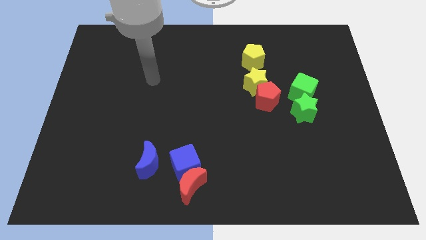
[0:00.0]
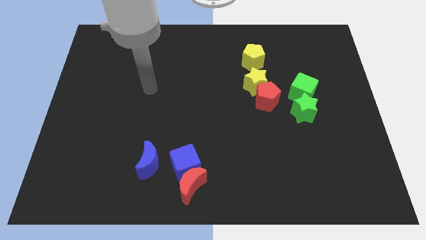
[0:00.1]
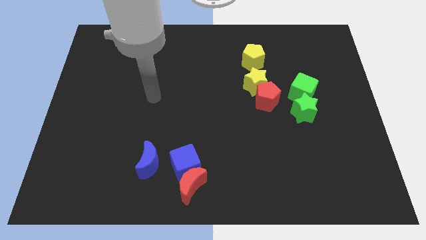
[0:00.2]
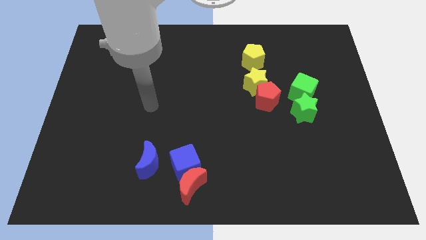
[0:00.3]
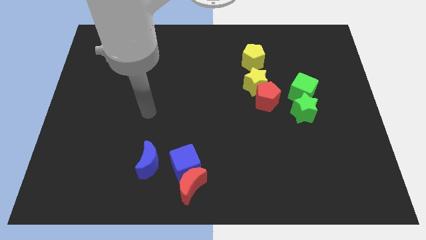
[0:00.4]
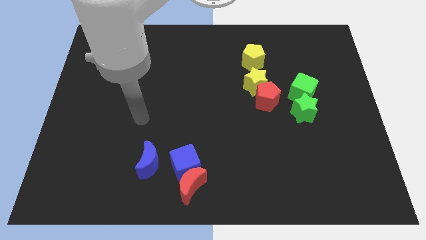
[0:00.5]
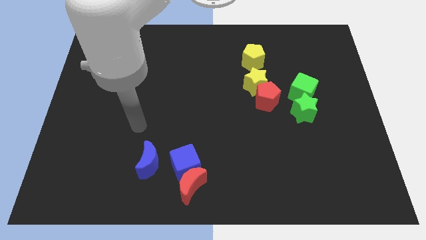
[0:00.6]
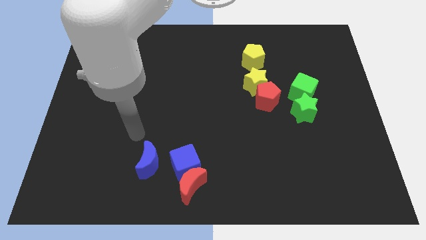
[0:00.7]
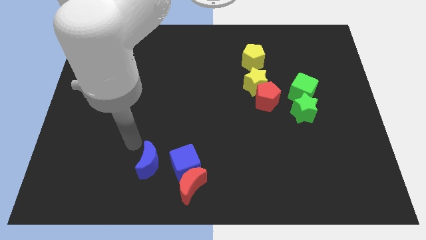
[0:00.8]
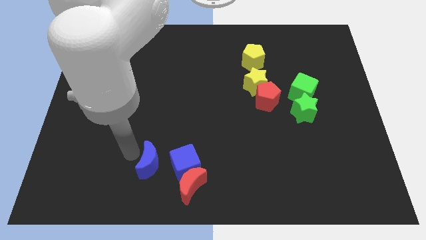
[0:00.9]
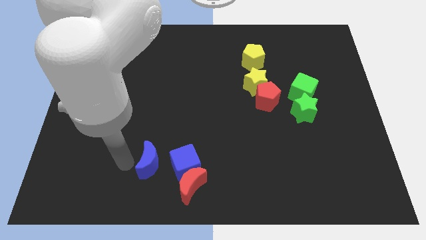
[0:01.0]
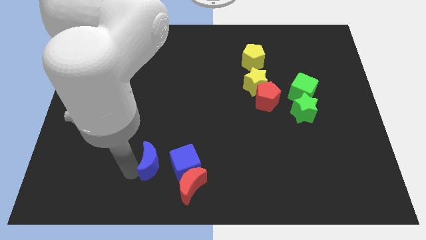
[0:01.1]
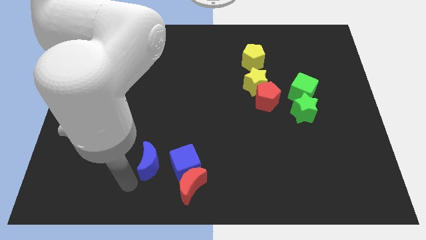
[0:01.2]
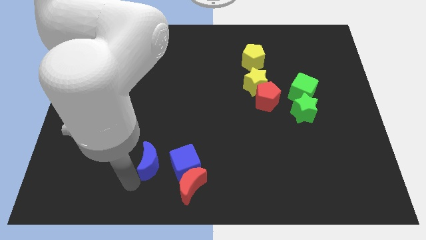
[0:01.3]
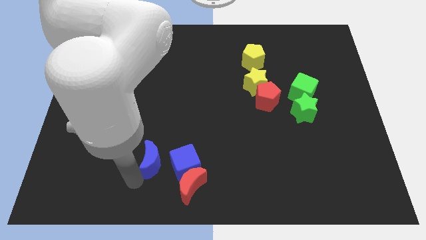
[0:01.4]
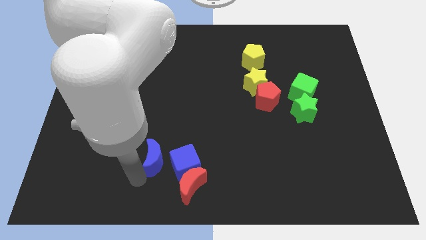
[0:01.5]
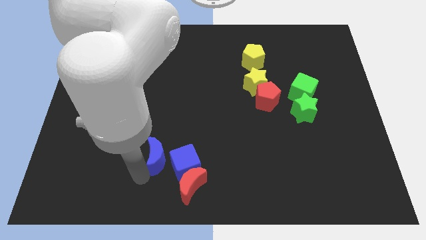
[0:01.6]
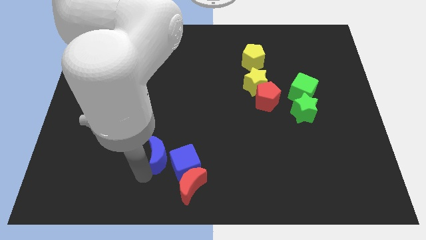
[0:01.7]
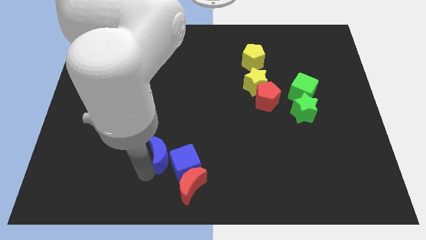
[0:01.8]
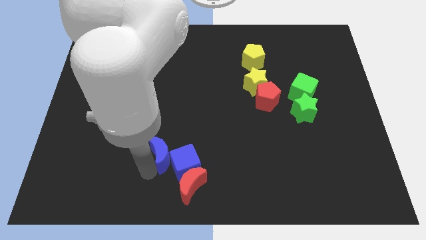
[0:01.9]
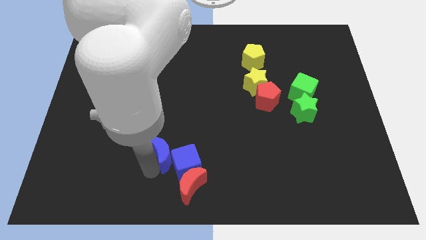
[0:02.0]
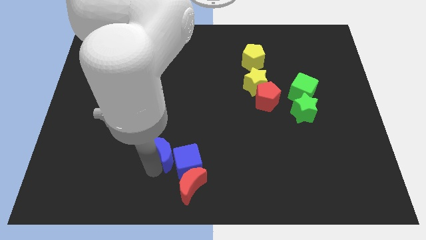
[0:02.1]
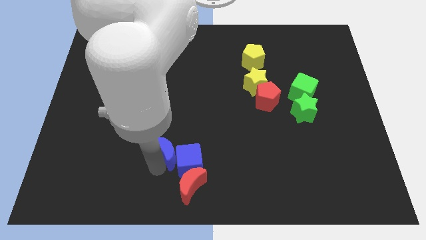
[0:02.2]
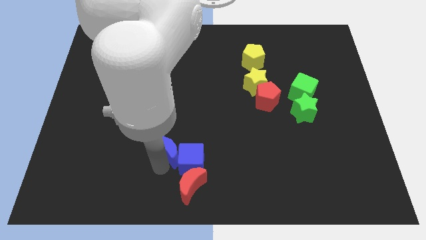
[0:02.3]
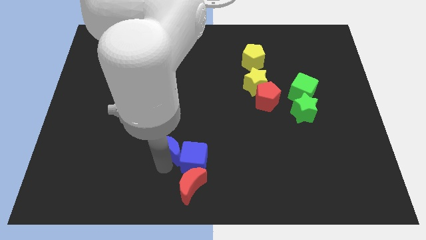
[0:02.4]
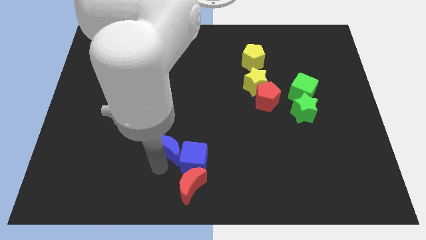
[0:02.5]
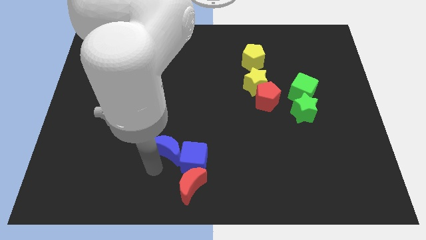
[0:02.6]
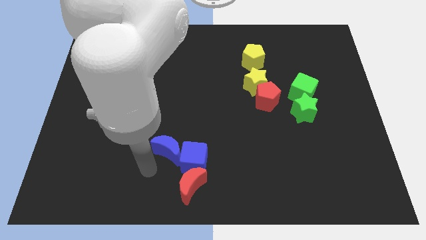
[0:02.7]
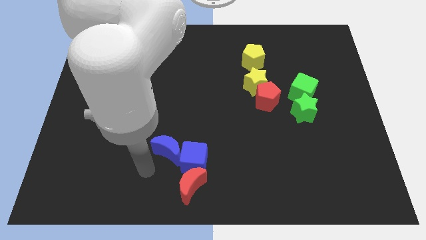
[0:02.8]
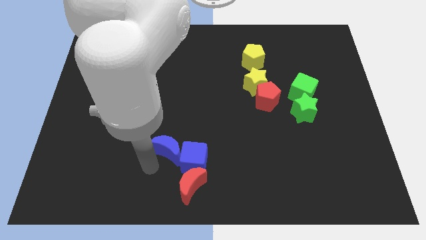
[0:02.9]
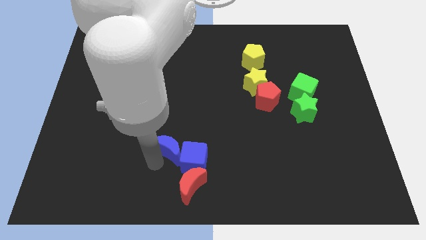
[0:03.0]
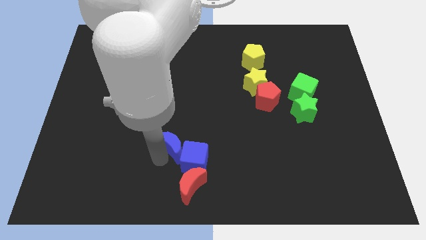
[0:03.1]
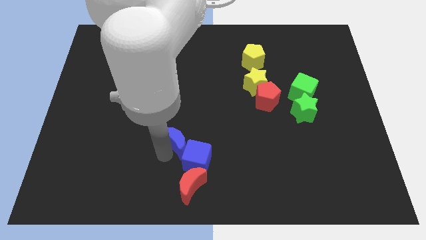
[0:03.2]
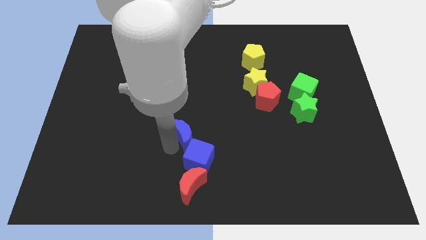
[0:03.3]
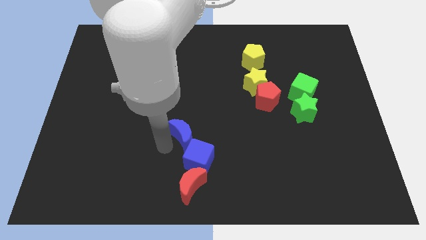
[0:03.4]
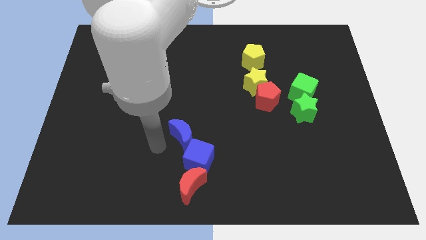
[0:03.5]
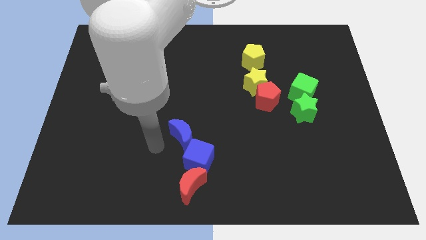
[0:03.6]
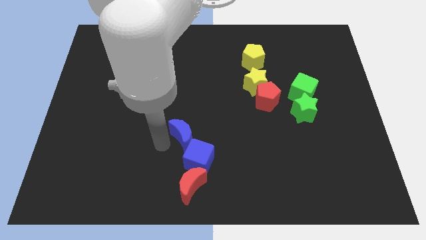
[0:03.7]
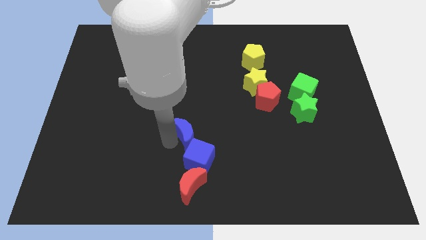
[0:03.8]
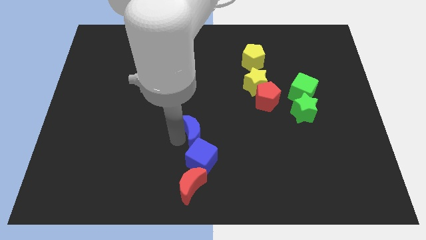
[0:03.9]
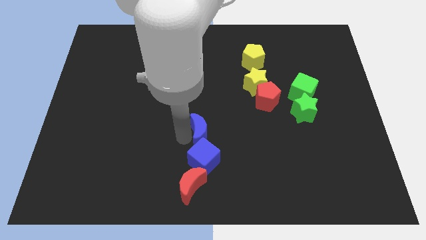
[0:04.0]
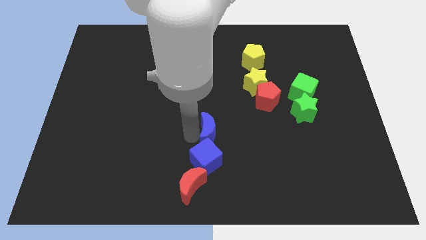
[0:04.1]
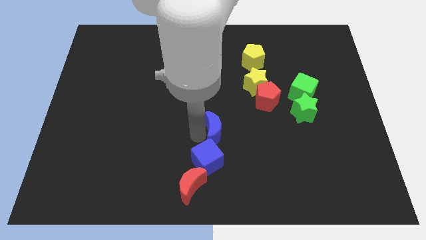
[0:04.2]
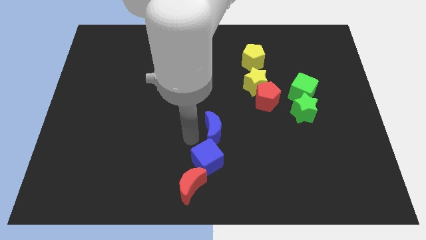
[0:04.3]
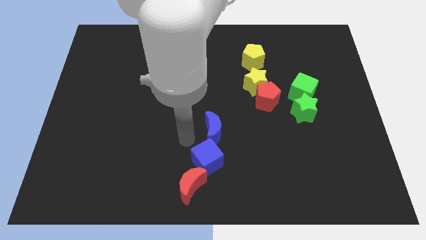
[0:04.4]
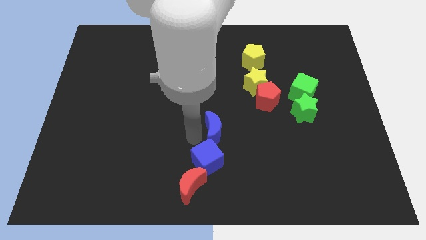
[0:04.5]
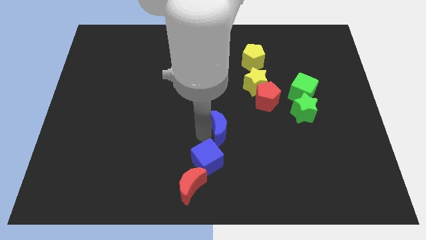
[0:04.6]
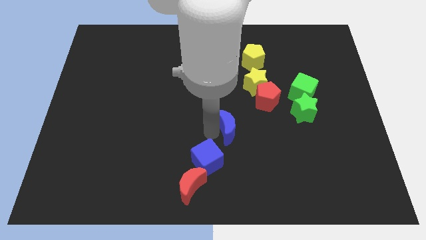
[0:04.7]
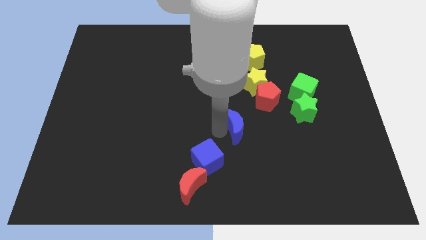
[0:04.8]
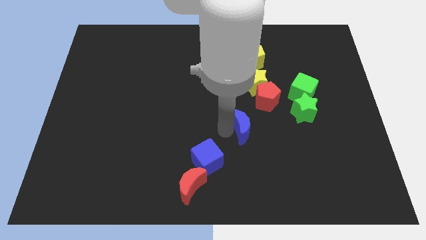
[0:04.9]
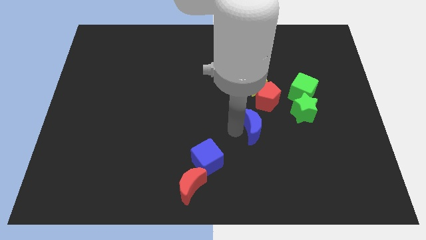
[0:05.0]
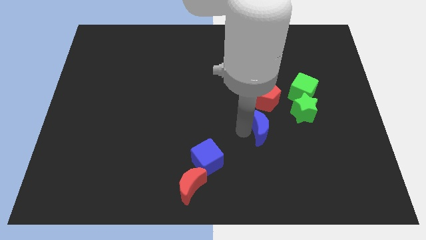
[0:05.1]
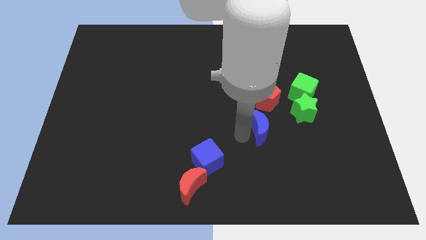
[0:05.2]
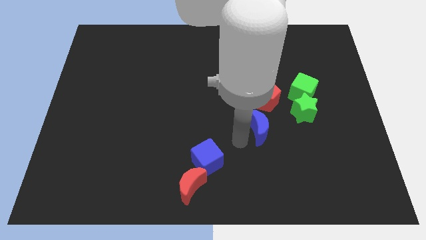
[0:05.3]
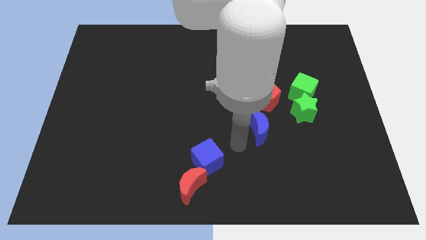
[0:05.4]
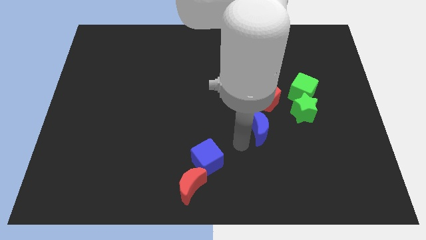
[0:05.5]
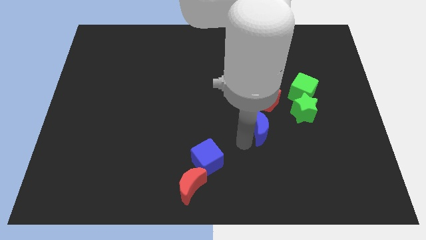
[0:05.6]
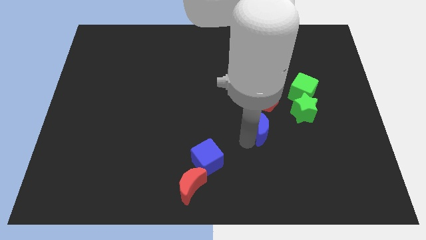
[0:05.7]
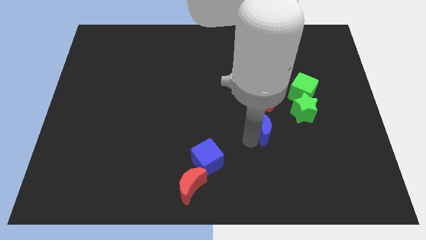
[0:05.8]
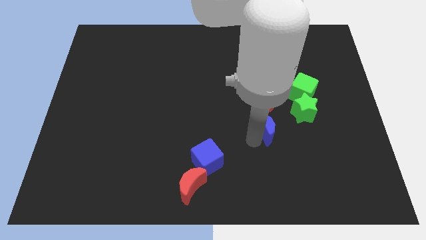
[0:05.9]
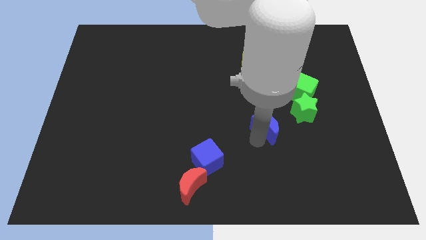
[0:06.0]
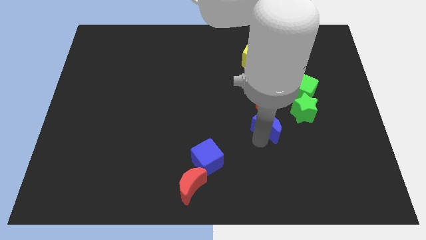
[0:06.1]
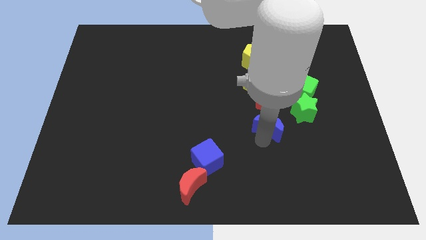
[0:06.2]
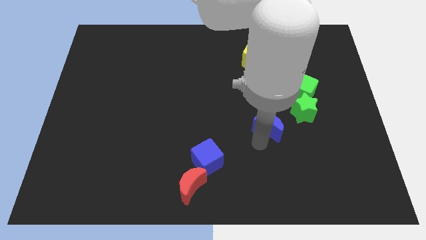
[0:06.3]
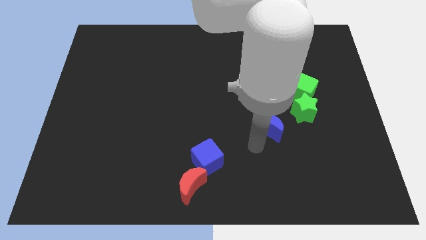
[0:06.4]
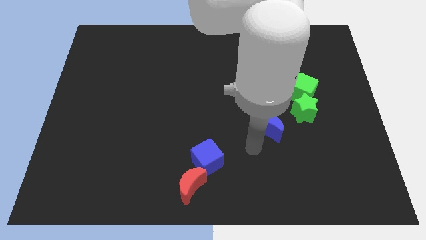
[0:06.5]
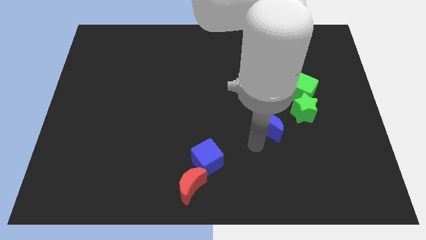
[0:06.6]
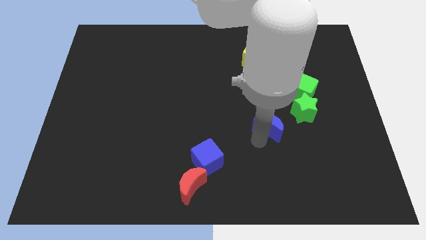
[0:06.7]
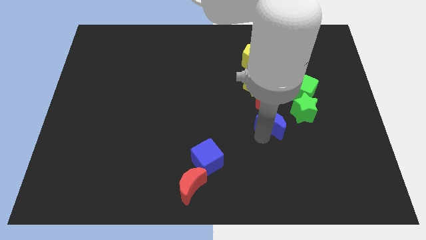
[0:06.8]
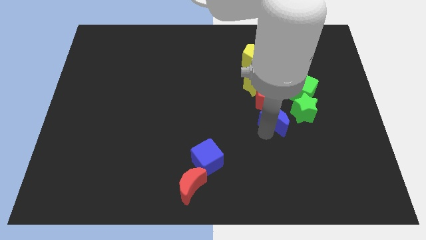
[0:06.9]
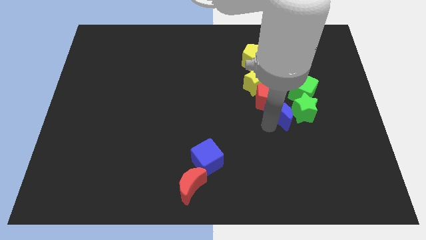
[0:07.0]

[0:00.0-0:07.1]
push the blue moon to the green star

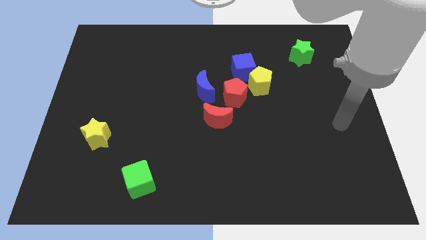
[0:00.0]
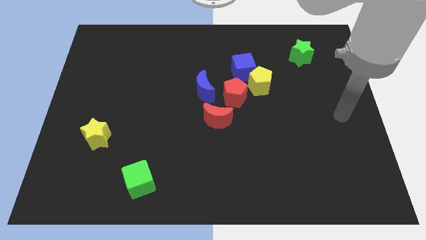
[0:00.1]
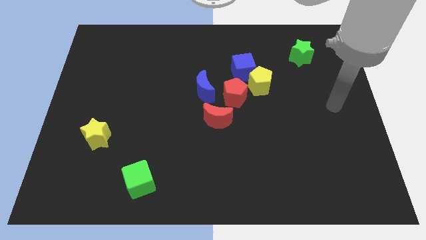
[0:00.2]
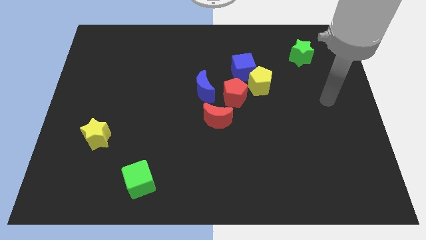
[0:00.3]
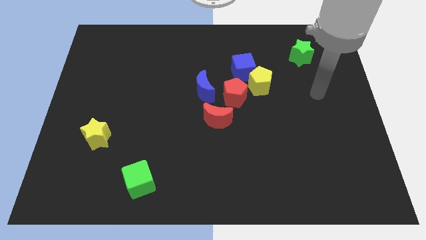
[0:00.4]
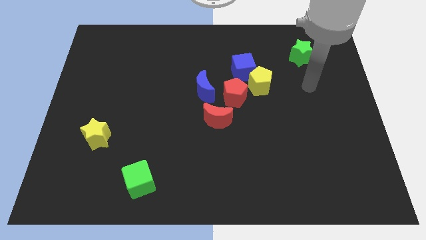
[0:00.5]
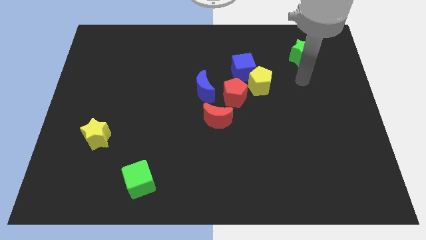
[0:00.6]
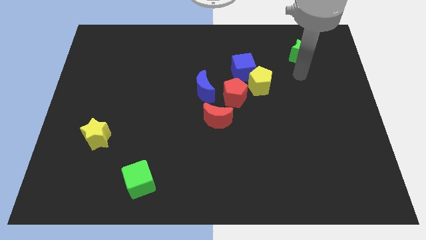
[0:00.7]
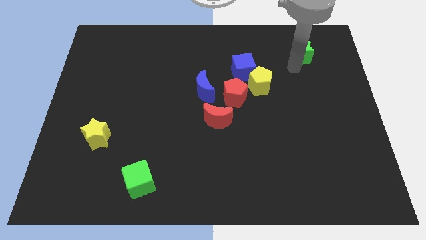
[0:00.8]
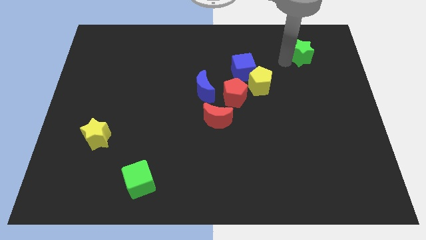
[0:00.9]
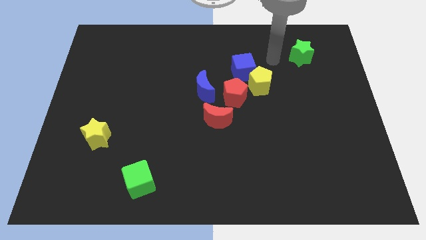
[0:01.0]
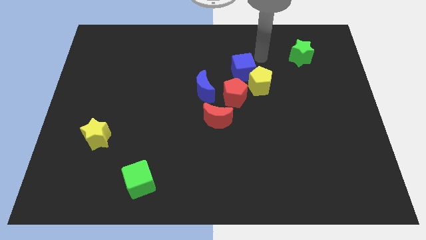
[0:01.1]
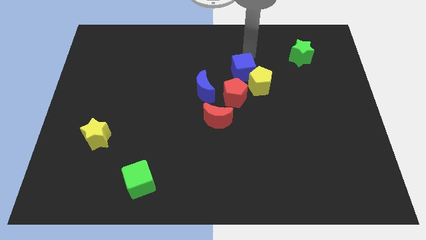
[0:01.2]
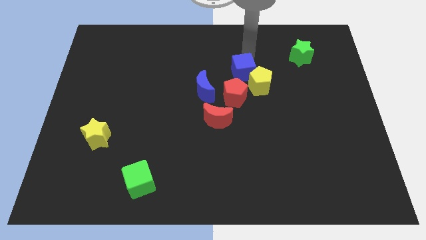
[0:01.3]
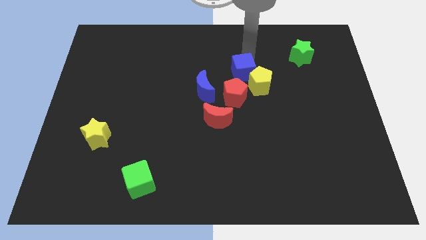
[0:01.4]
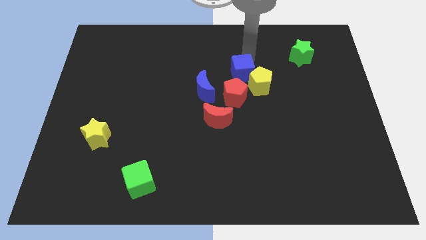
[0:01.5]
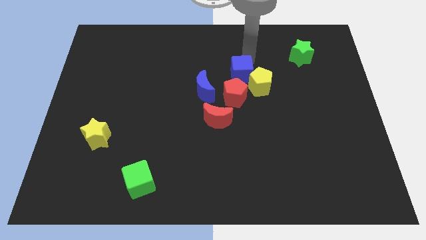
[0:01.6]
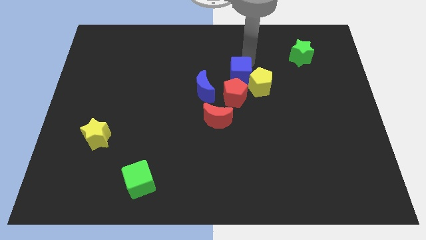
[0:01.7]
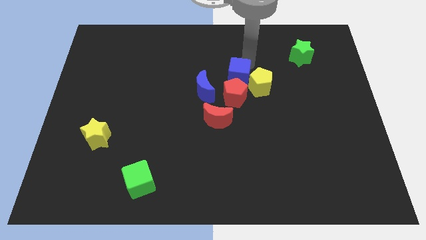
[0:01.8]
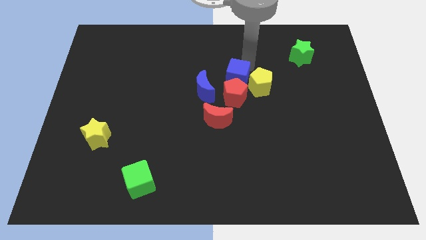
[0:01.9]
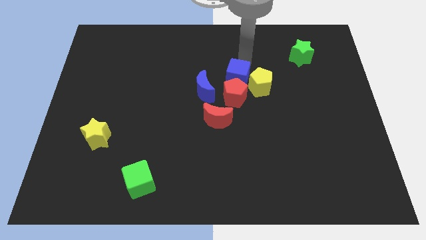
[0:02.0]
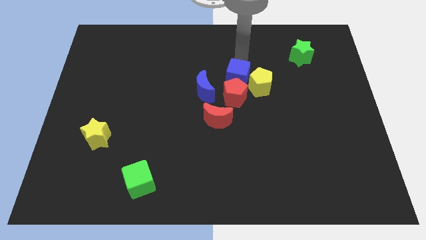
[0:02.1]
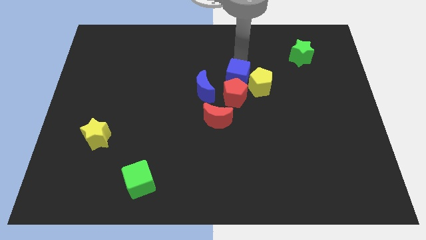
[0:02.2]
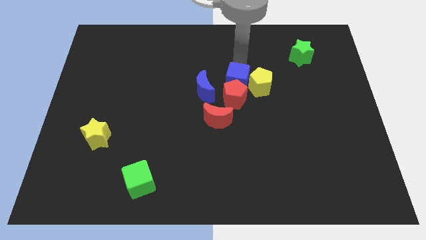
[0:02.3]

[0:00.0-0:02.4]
move the blue cube next to the red pentagon
